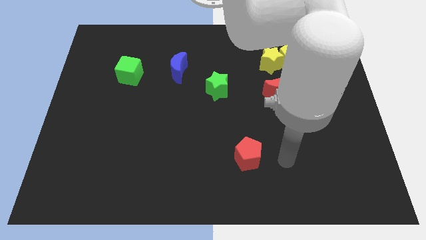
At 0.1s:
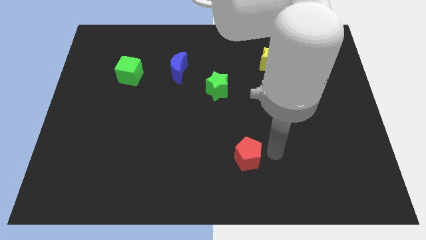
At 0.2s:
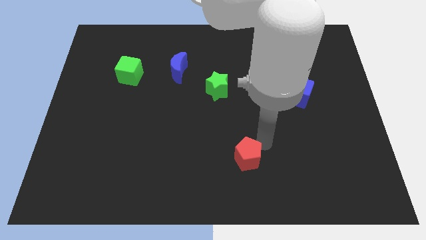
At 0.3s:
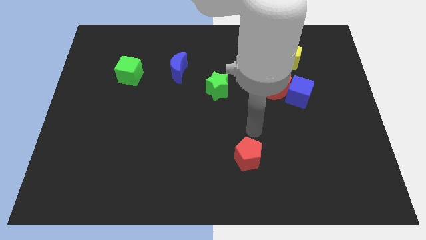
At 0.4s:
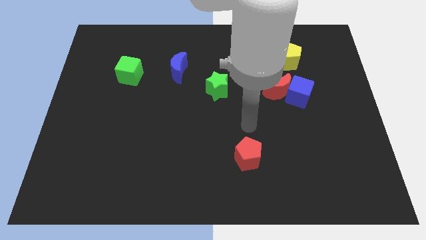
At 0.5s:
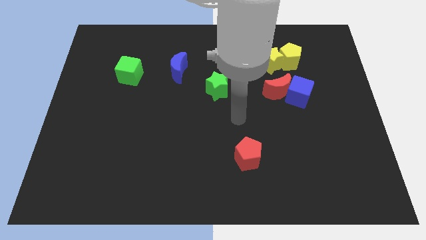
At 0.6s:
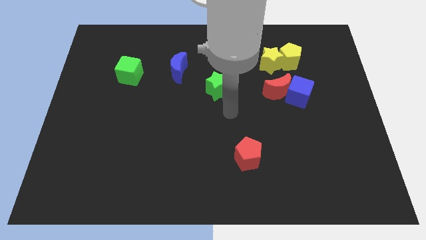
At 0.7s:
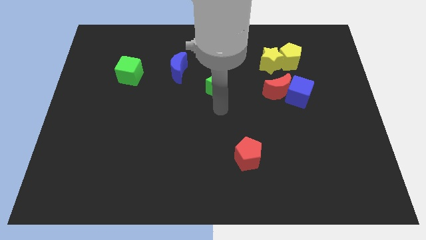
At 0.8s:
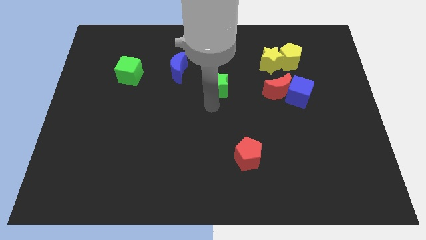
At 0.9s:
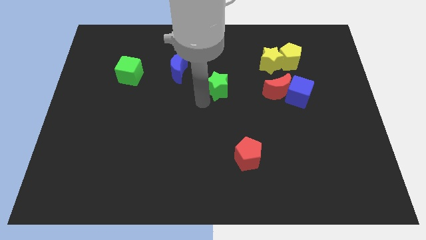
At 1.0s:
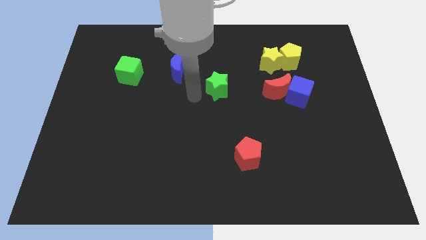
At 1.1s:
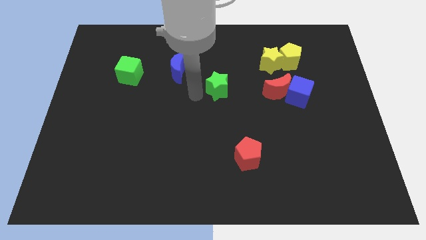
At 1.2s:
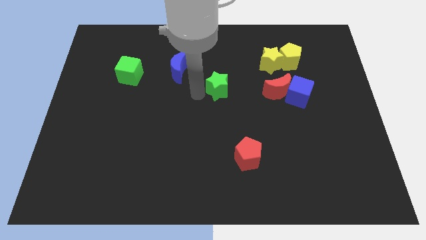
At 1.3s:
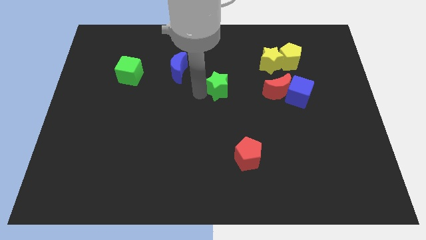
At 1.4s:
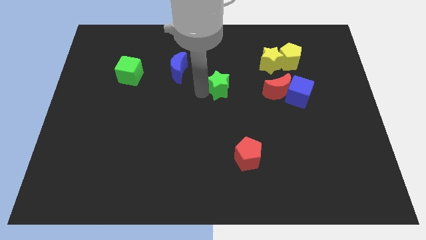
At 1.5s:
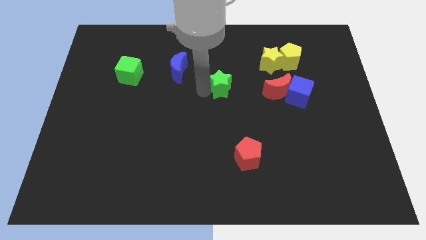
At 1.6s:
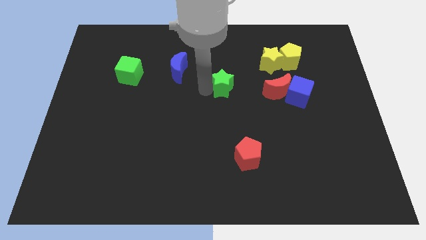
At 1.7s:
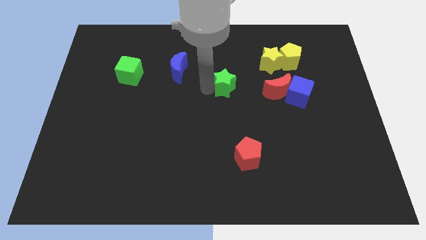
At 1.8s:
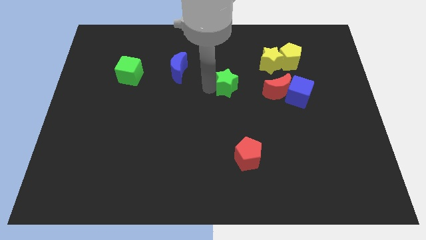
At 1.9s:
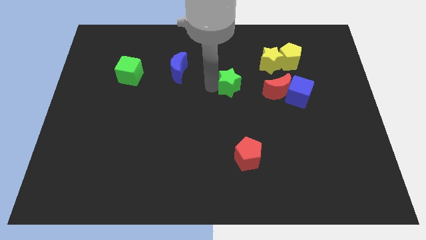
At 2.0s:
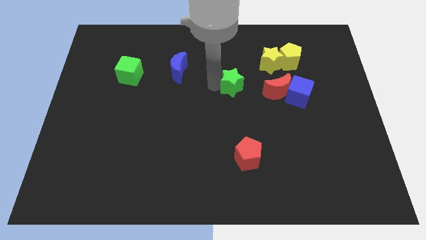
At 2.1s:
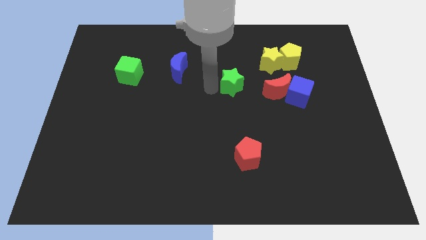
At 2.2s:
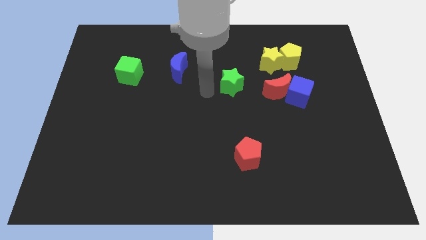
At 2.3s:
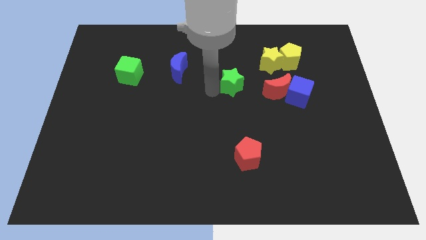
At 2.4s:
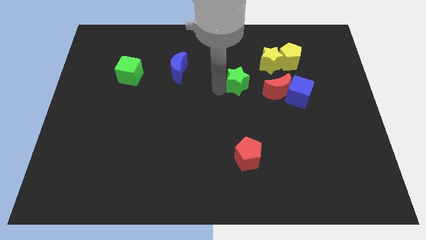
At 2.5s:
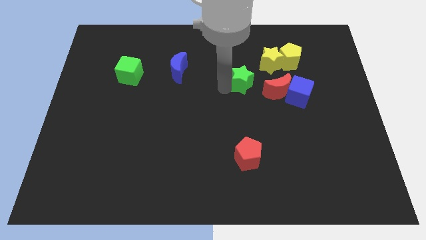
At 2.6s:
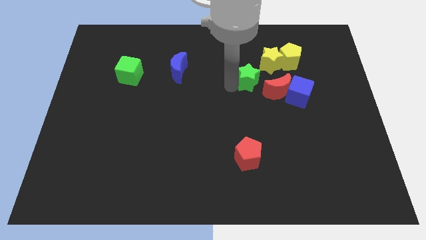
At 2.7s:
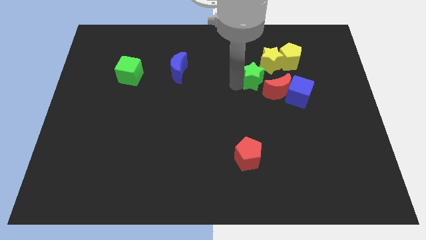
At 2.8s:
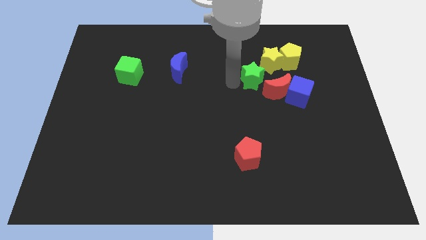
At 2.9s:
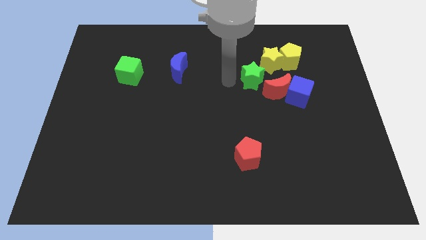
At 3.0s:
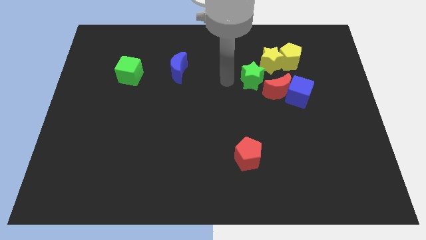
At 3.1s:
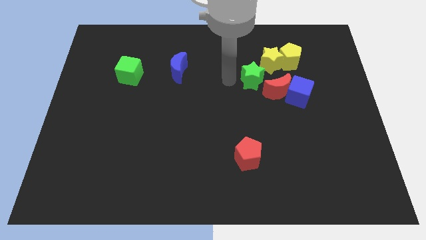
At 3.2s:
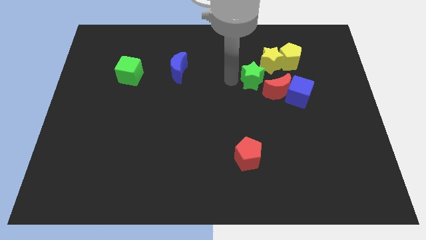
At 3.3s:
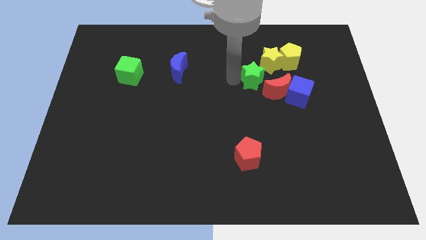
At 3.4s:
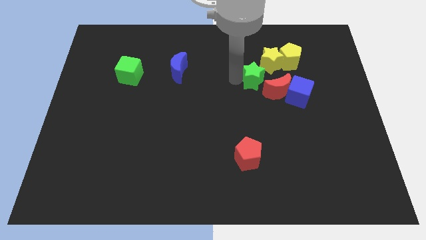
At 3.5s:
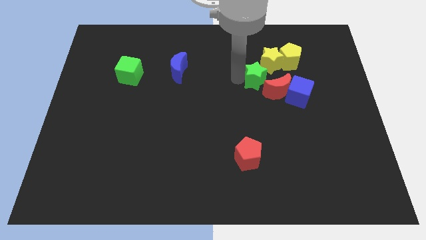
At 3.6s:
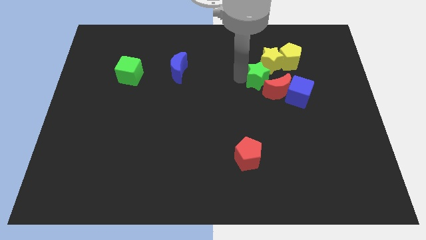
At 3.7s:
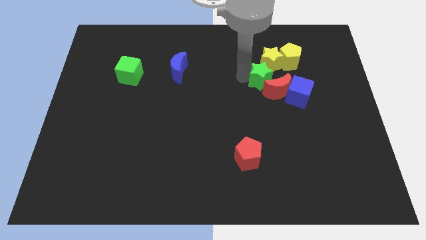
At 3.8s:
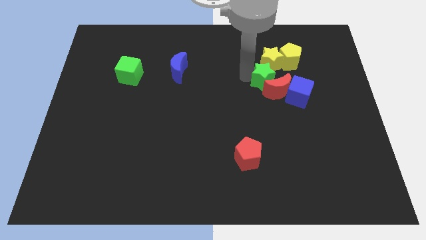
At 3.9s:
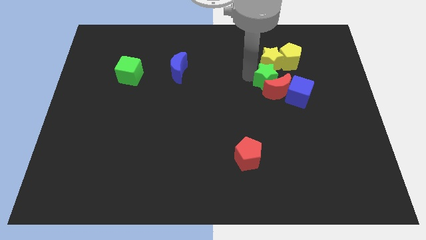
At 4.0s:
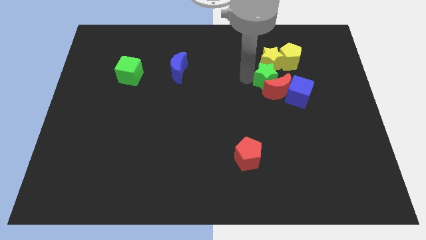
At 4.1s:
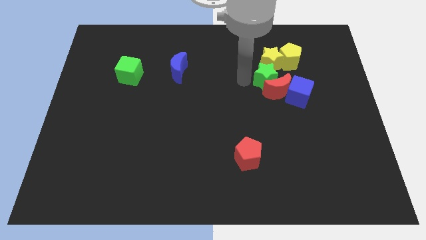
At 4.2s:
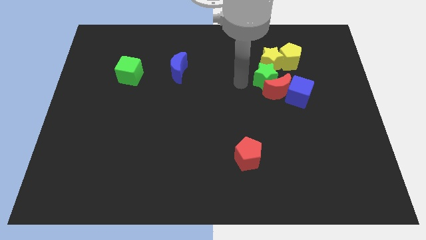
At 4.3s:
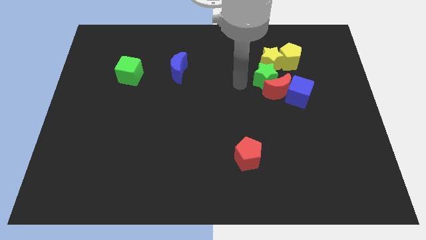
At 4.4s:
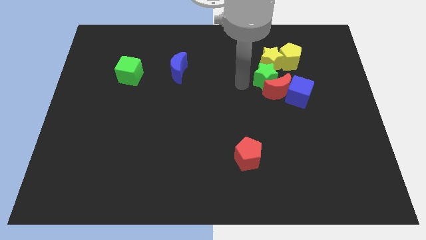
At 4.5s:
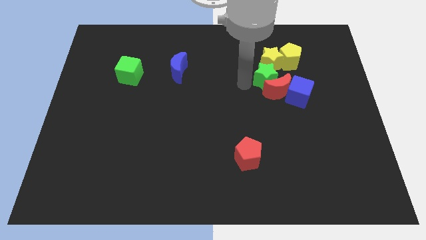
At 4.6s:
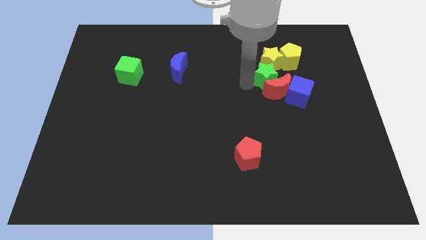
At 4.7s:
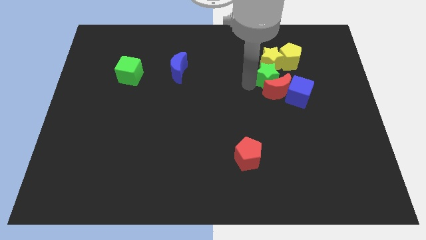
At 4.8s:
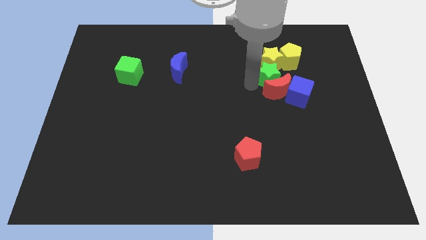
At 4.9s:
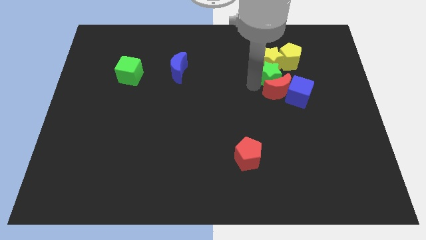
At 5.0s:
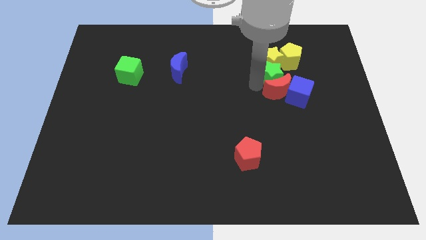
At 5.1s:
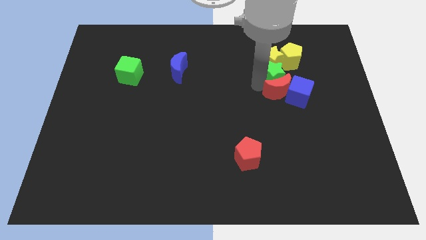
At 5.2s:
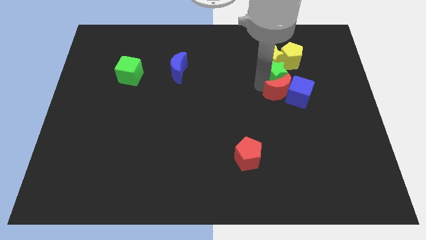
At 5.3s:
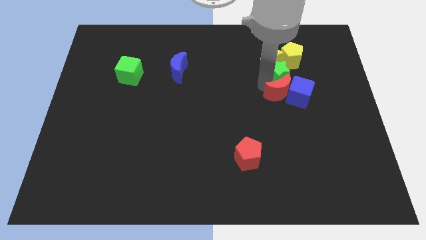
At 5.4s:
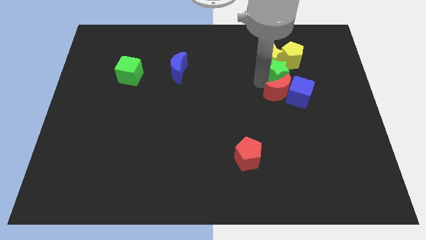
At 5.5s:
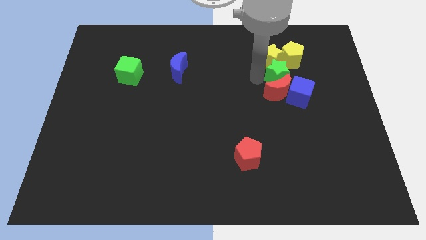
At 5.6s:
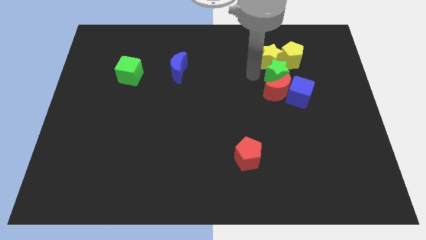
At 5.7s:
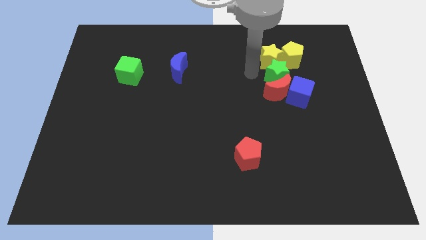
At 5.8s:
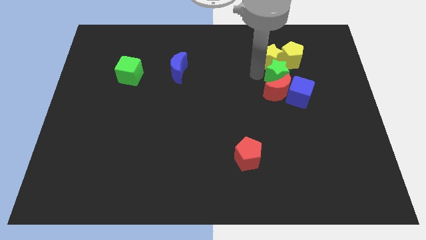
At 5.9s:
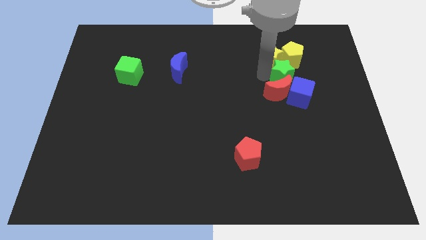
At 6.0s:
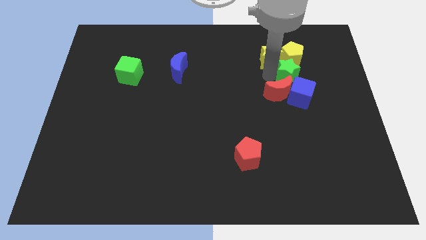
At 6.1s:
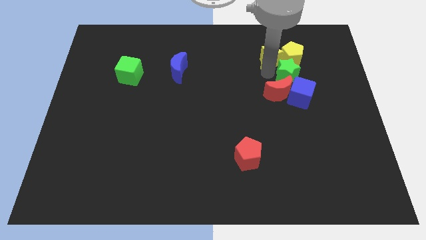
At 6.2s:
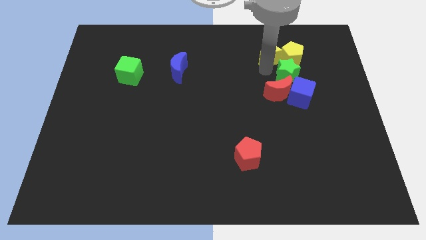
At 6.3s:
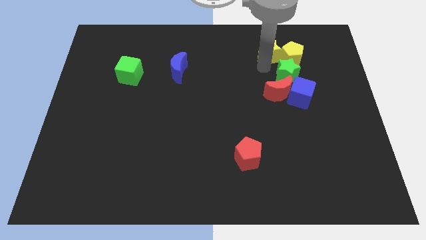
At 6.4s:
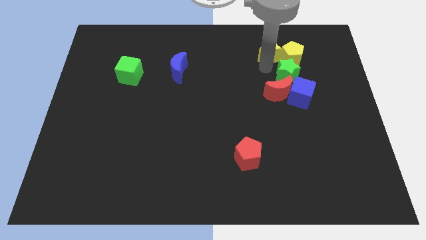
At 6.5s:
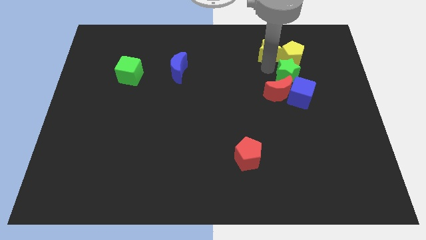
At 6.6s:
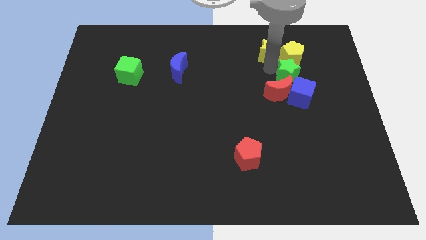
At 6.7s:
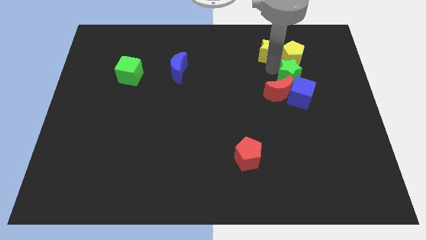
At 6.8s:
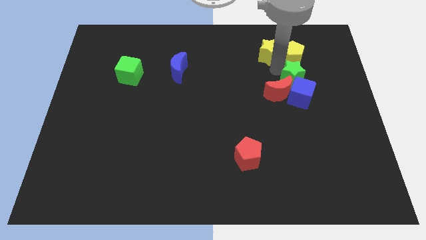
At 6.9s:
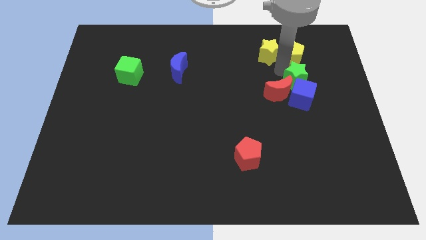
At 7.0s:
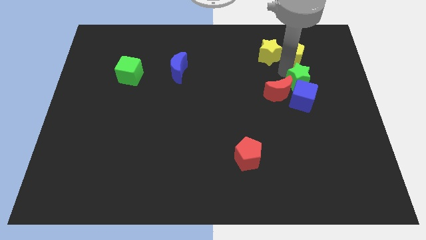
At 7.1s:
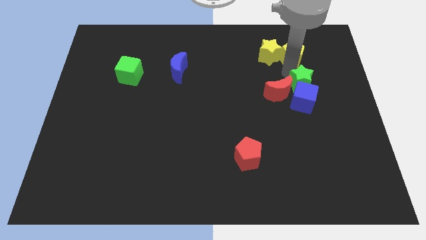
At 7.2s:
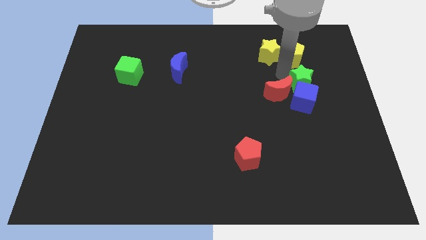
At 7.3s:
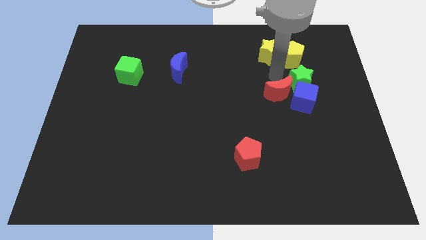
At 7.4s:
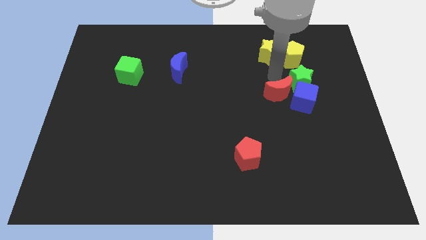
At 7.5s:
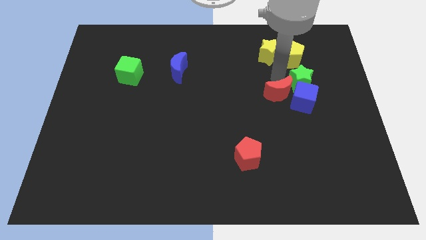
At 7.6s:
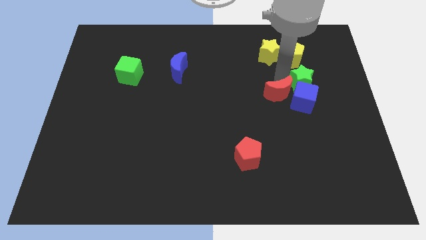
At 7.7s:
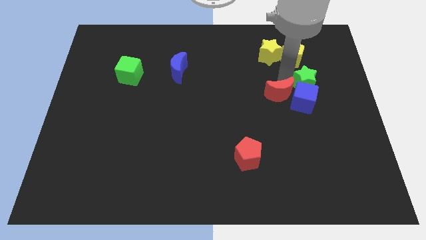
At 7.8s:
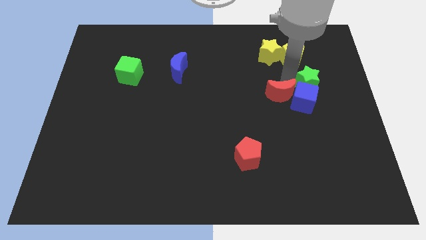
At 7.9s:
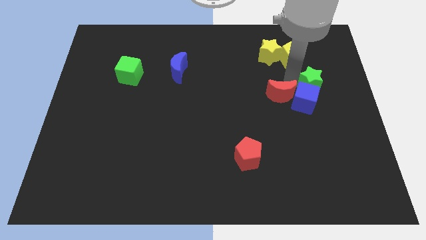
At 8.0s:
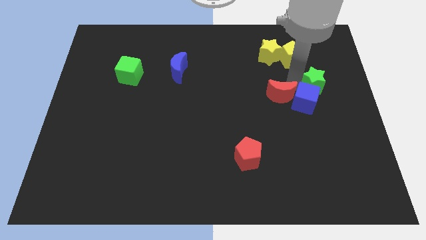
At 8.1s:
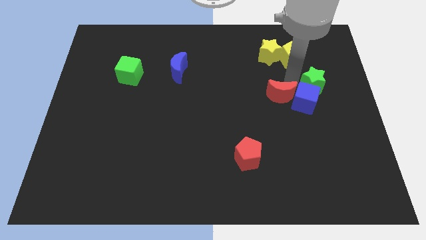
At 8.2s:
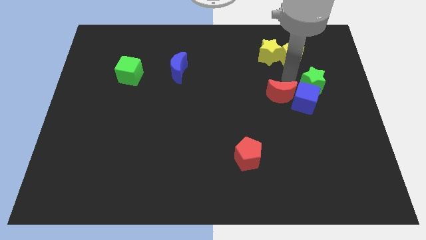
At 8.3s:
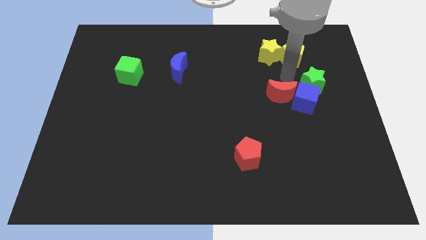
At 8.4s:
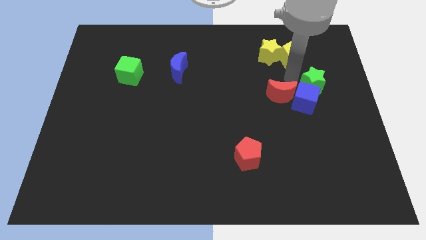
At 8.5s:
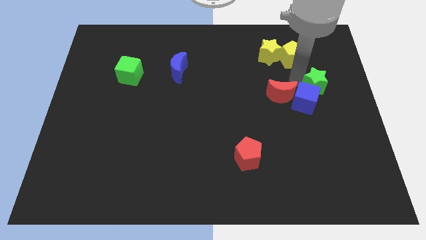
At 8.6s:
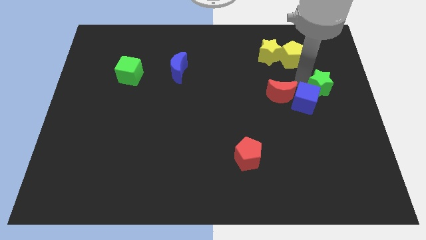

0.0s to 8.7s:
put the green star to the right side
